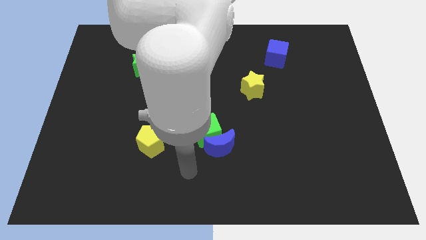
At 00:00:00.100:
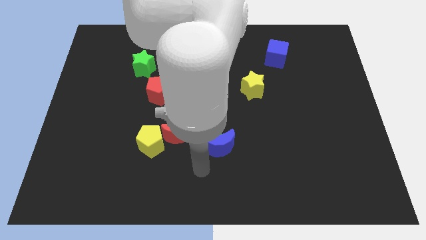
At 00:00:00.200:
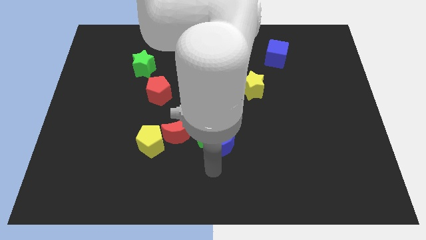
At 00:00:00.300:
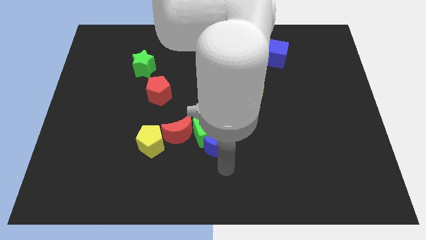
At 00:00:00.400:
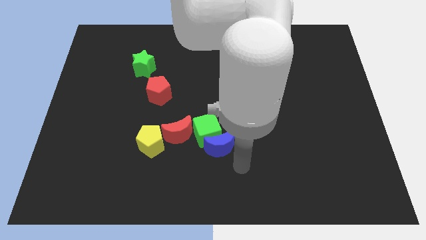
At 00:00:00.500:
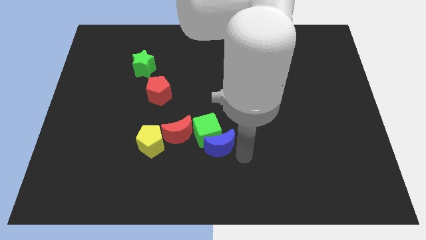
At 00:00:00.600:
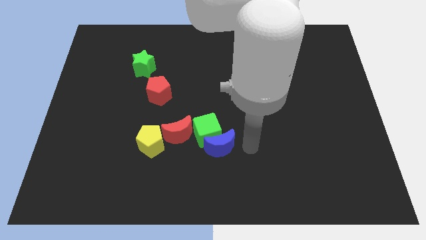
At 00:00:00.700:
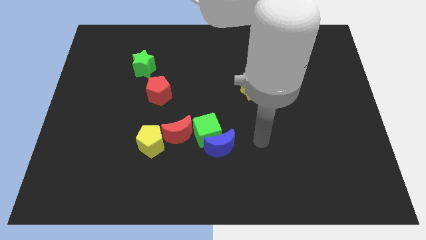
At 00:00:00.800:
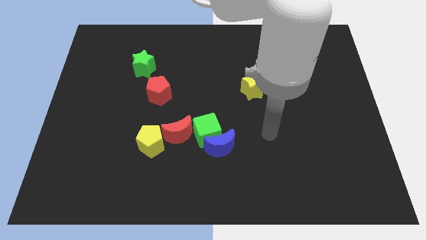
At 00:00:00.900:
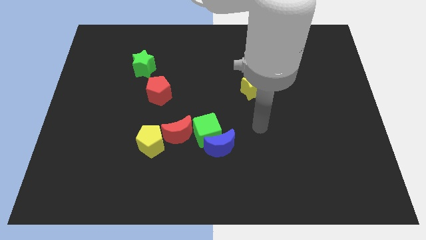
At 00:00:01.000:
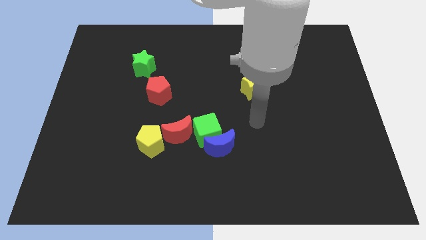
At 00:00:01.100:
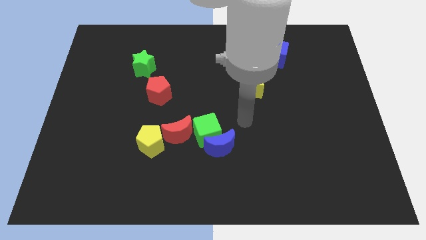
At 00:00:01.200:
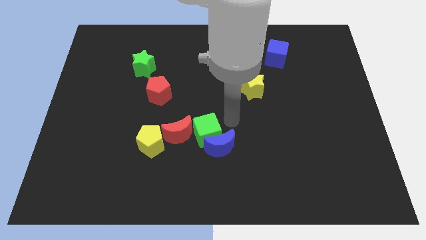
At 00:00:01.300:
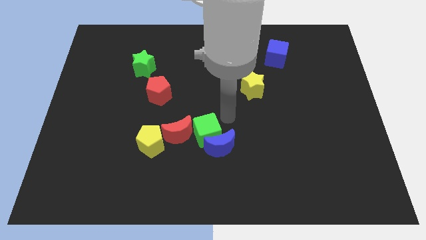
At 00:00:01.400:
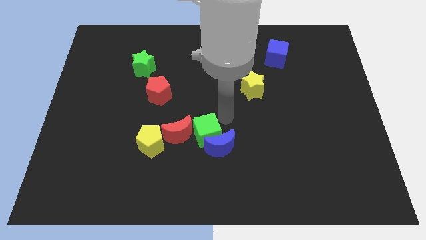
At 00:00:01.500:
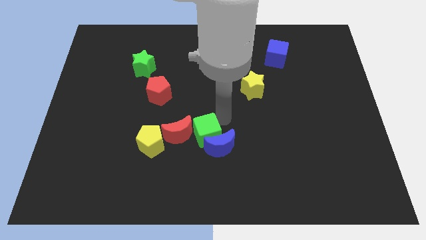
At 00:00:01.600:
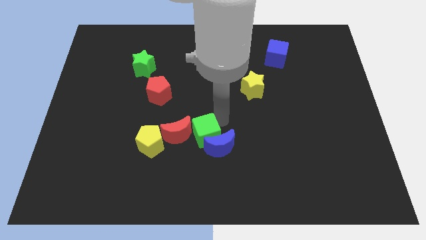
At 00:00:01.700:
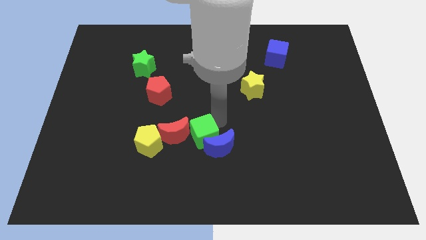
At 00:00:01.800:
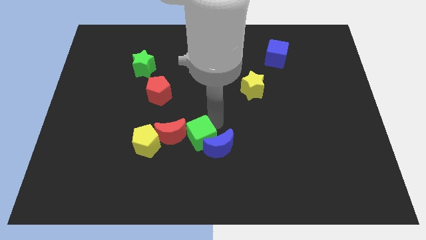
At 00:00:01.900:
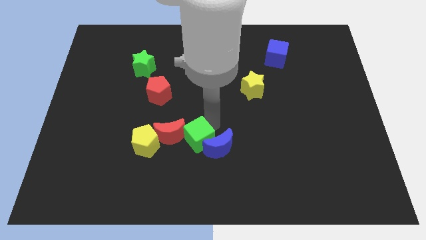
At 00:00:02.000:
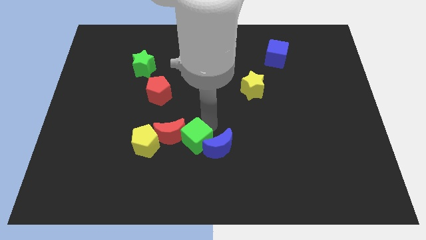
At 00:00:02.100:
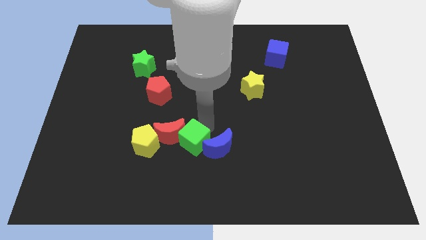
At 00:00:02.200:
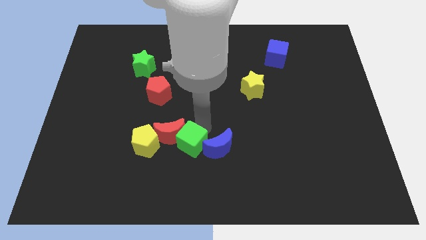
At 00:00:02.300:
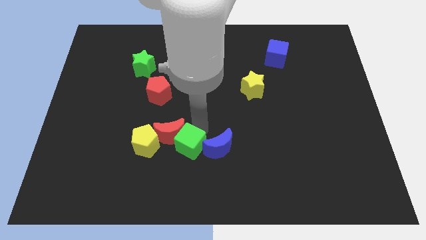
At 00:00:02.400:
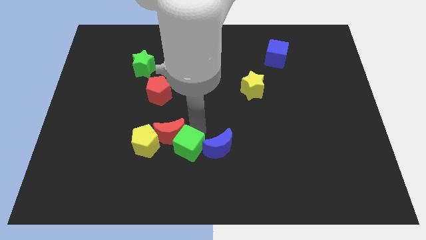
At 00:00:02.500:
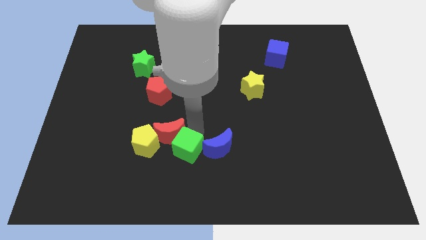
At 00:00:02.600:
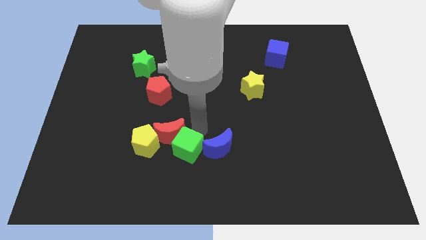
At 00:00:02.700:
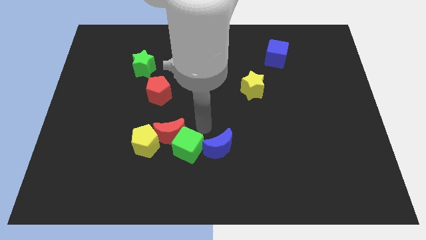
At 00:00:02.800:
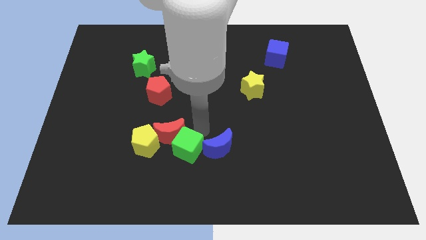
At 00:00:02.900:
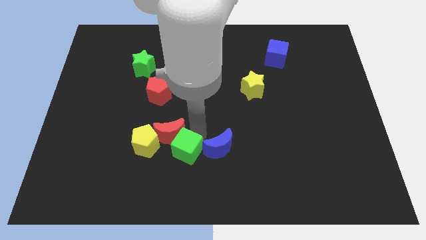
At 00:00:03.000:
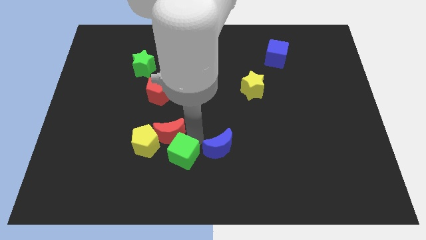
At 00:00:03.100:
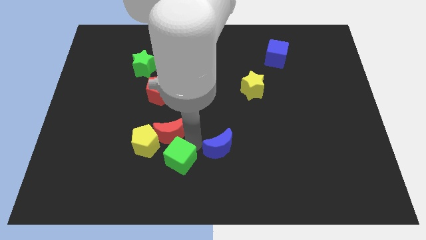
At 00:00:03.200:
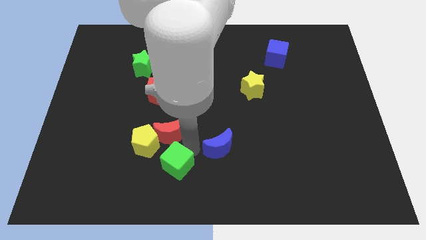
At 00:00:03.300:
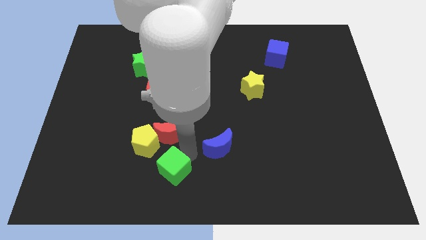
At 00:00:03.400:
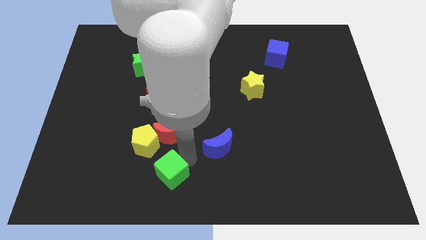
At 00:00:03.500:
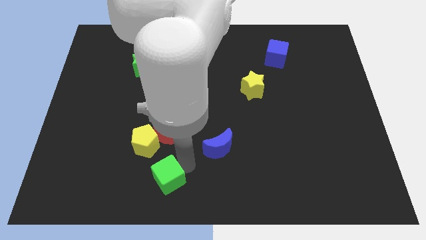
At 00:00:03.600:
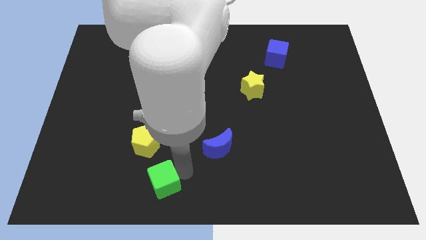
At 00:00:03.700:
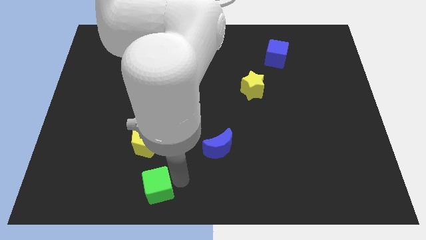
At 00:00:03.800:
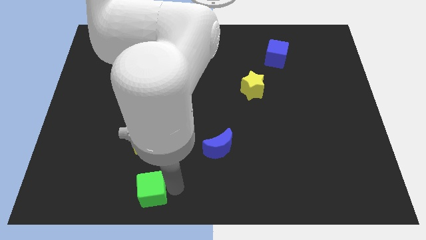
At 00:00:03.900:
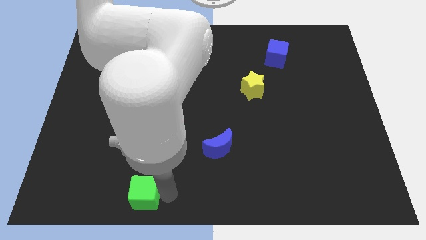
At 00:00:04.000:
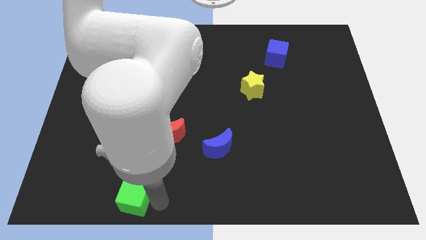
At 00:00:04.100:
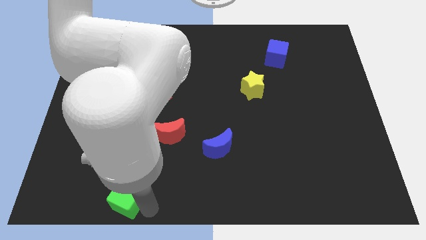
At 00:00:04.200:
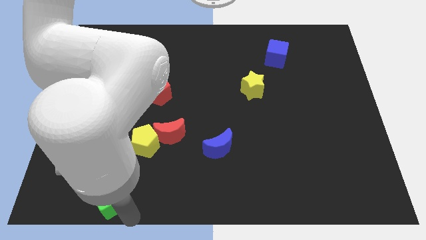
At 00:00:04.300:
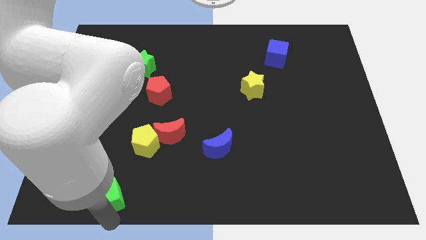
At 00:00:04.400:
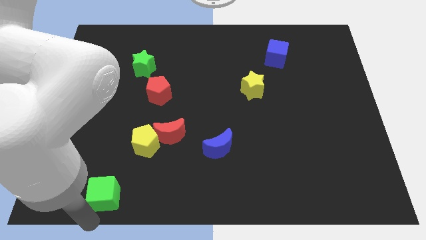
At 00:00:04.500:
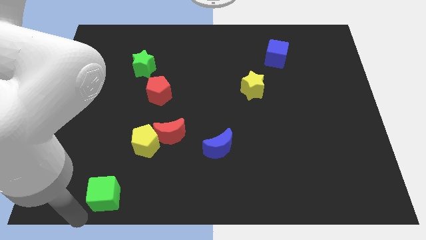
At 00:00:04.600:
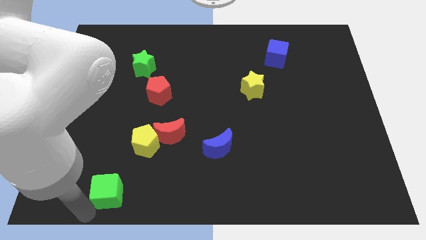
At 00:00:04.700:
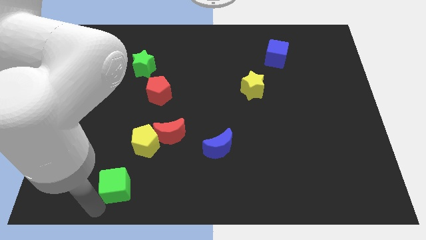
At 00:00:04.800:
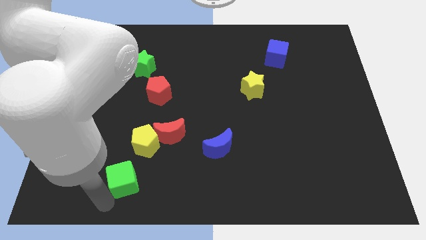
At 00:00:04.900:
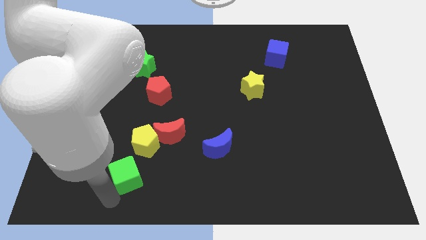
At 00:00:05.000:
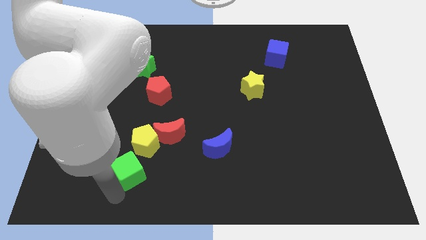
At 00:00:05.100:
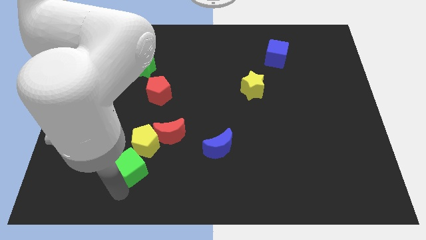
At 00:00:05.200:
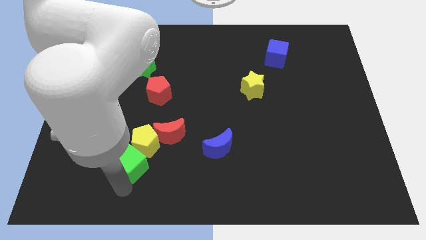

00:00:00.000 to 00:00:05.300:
move the green cube close to the yellow pentagon

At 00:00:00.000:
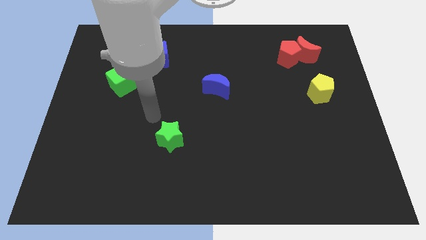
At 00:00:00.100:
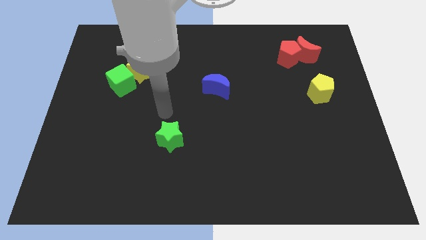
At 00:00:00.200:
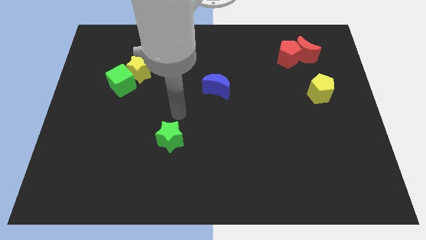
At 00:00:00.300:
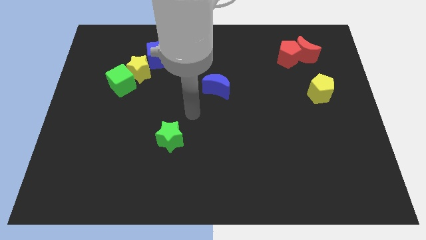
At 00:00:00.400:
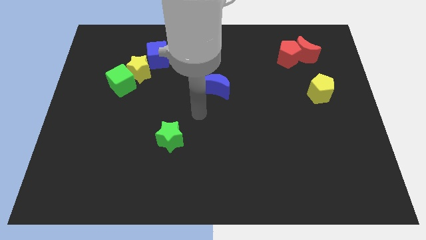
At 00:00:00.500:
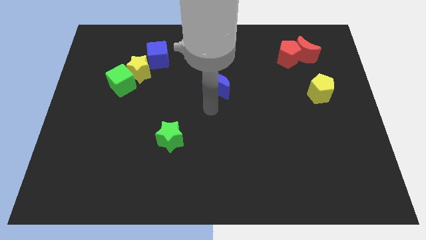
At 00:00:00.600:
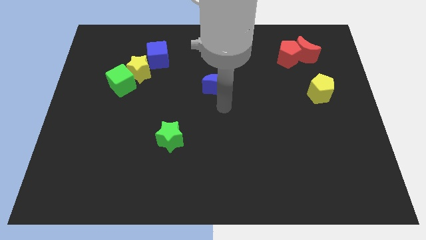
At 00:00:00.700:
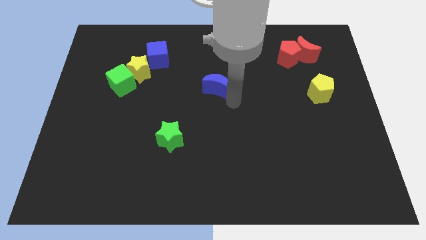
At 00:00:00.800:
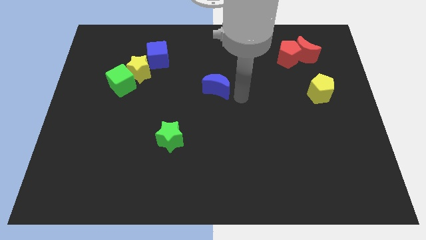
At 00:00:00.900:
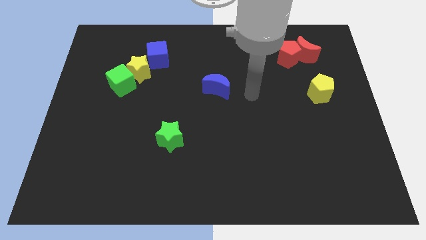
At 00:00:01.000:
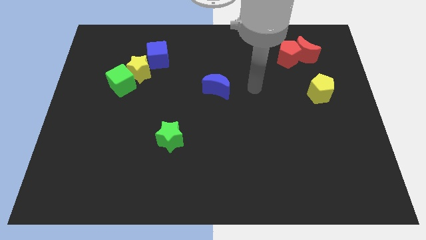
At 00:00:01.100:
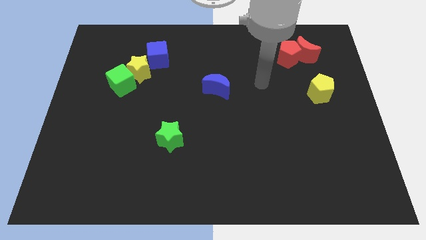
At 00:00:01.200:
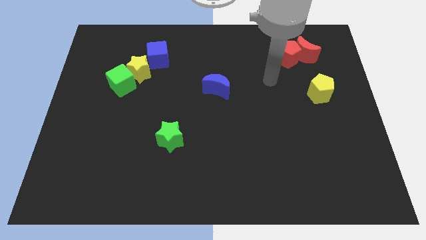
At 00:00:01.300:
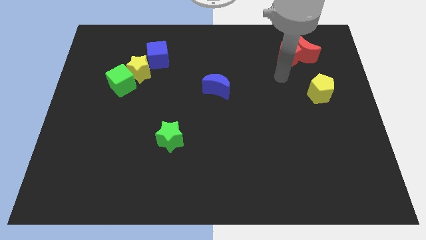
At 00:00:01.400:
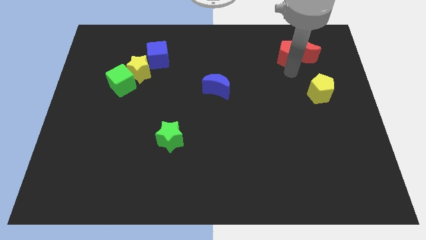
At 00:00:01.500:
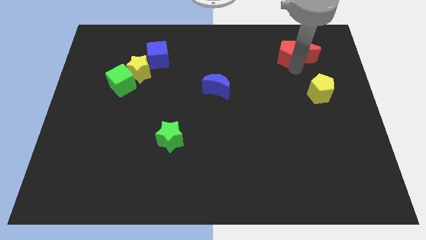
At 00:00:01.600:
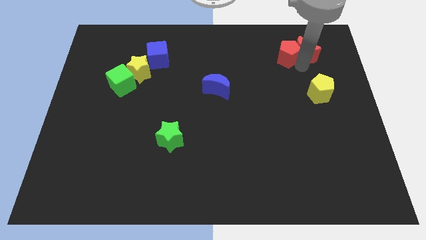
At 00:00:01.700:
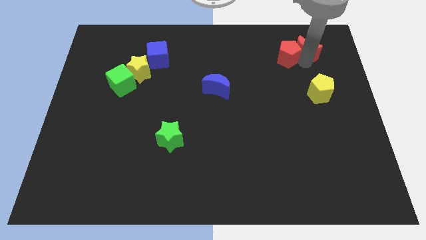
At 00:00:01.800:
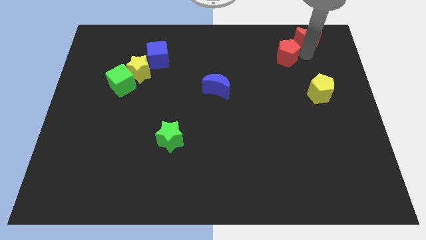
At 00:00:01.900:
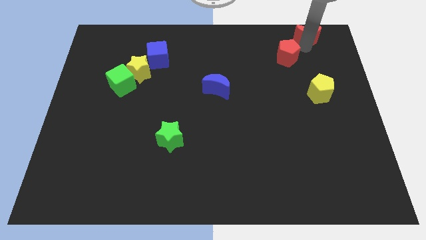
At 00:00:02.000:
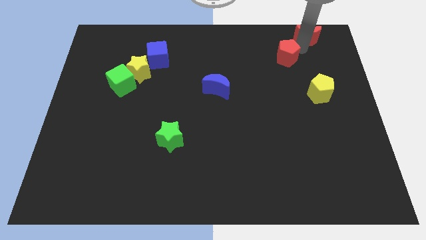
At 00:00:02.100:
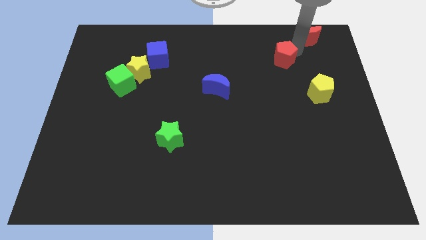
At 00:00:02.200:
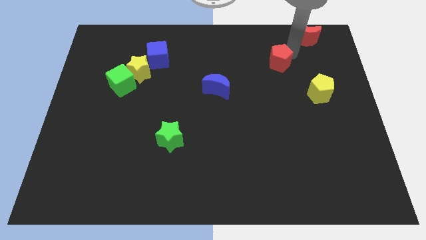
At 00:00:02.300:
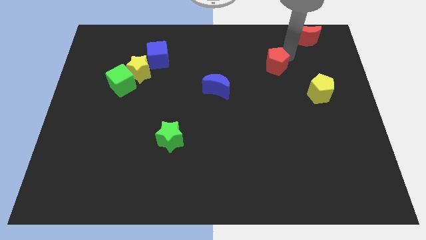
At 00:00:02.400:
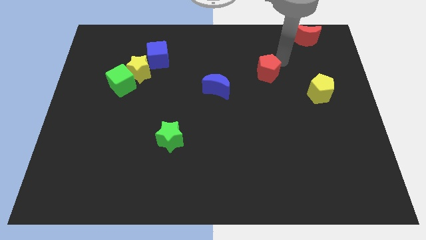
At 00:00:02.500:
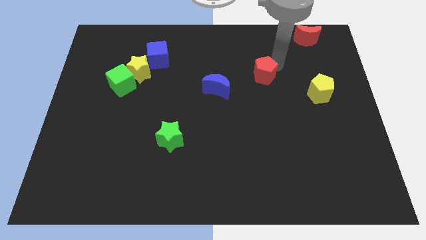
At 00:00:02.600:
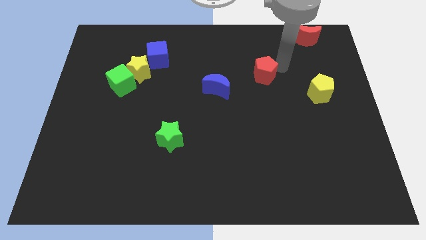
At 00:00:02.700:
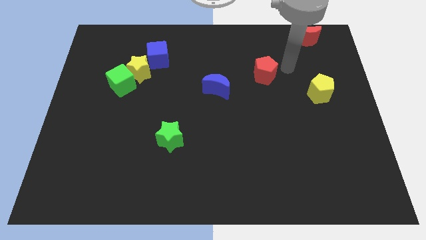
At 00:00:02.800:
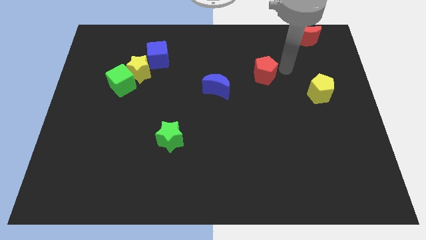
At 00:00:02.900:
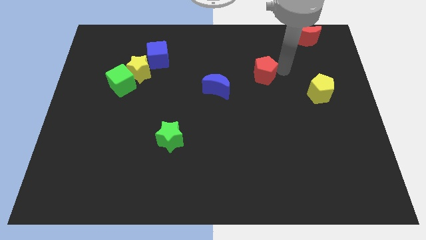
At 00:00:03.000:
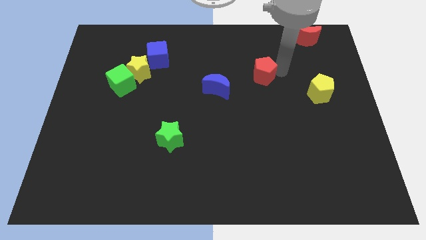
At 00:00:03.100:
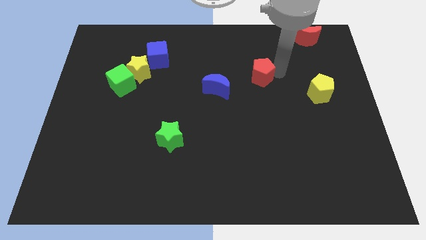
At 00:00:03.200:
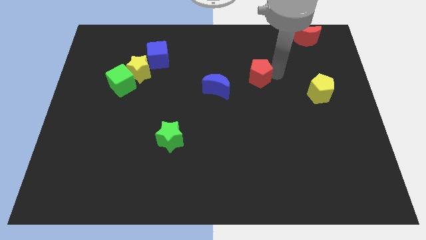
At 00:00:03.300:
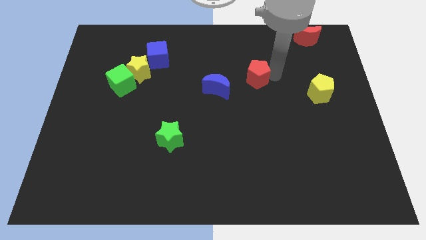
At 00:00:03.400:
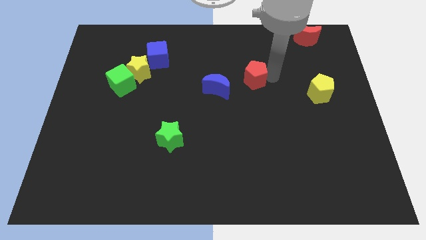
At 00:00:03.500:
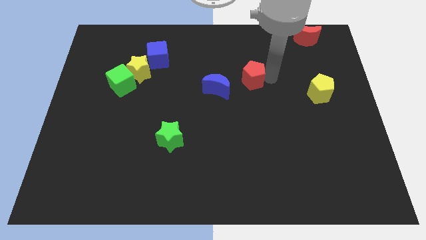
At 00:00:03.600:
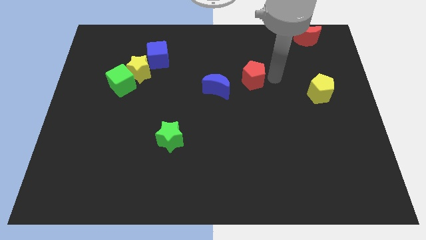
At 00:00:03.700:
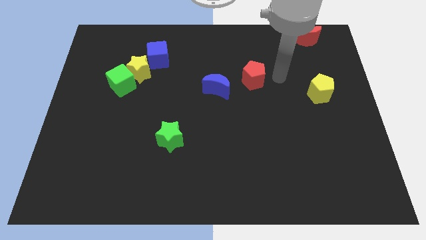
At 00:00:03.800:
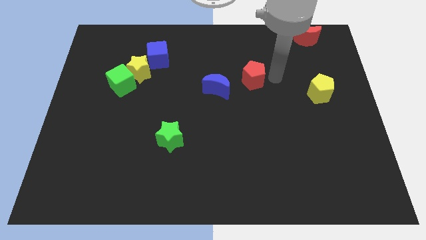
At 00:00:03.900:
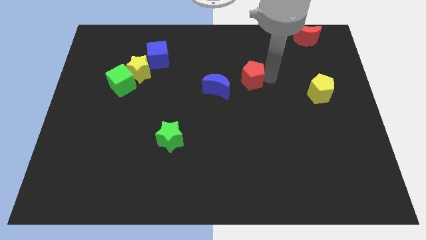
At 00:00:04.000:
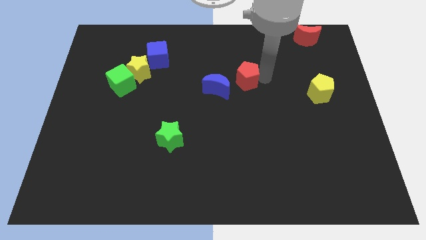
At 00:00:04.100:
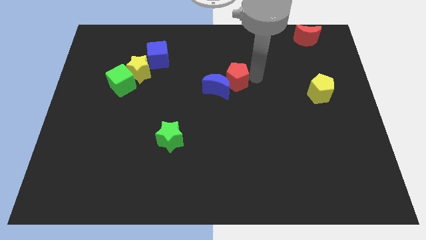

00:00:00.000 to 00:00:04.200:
put the red pentagon close to the blue moon
